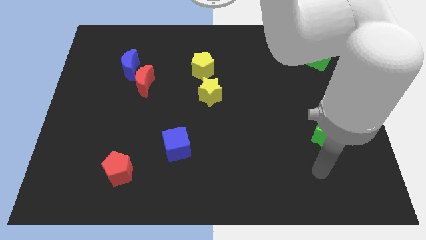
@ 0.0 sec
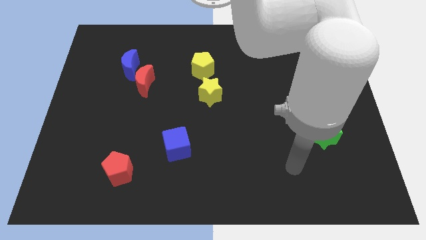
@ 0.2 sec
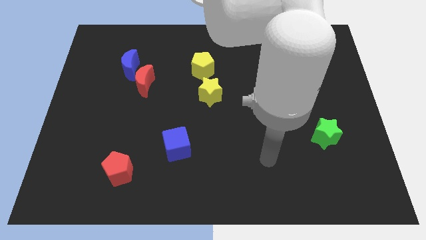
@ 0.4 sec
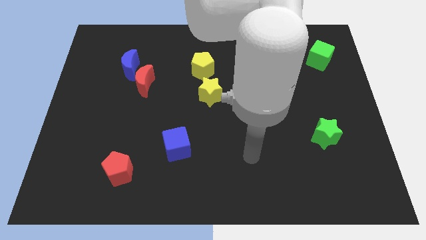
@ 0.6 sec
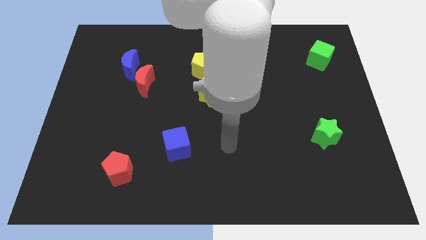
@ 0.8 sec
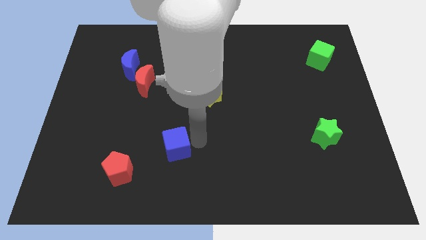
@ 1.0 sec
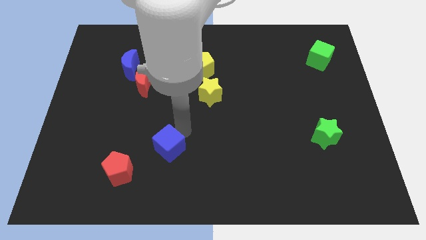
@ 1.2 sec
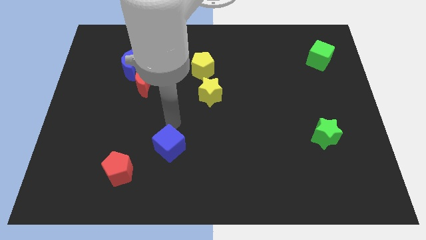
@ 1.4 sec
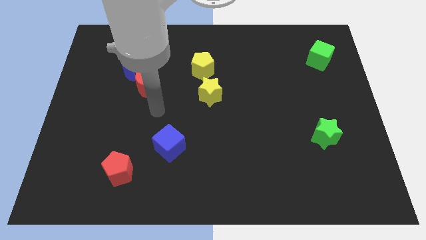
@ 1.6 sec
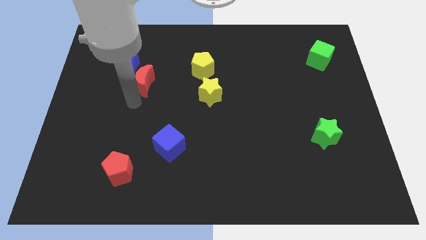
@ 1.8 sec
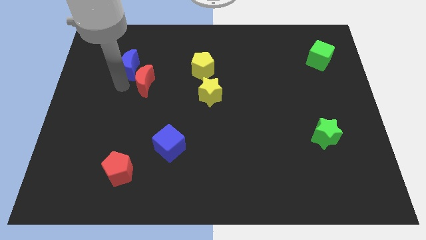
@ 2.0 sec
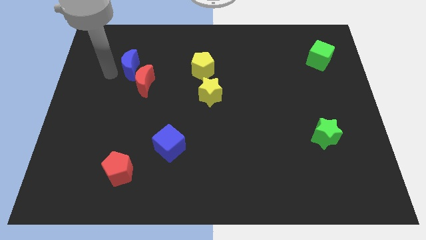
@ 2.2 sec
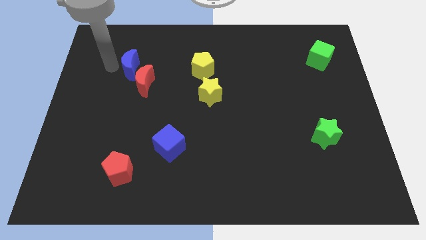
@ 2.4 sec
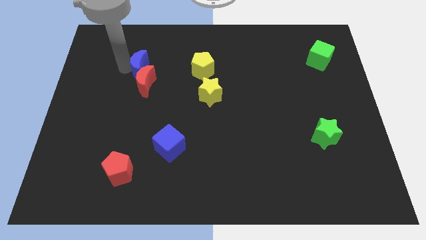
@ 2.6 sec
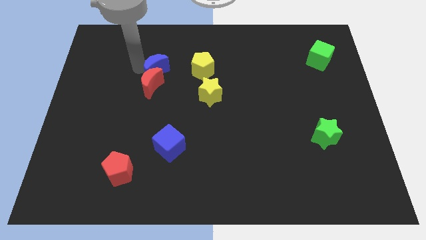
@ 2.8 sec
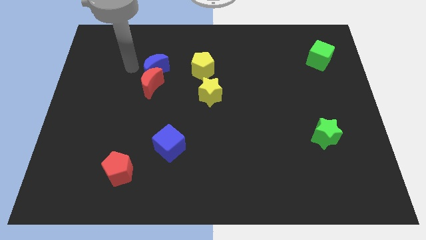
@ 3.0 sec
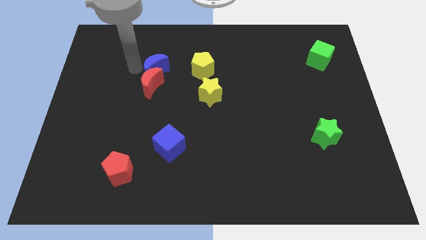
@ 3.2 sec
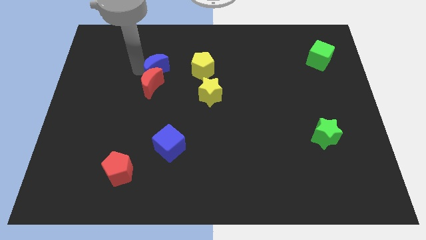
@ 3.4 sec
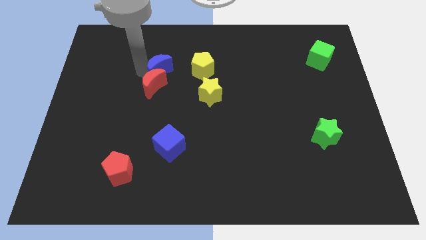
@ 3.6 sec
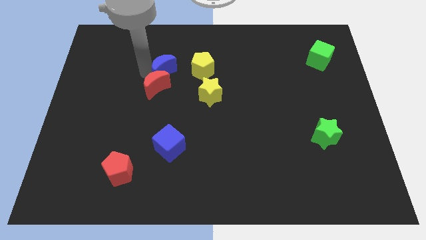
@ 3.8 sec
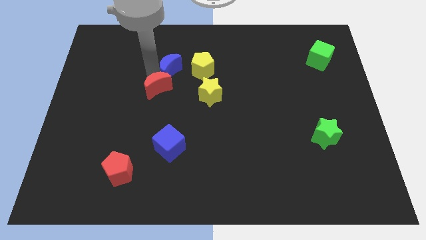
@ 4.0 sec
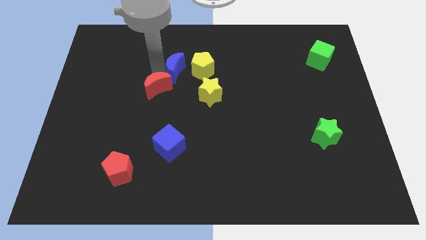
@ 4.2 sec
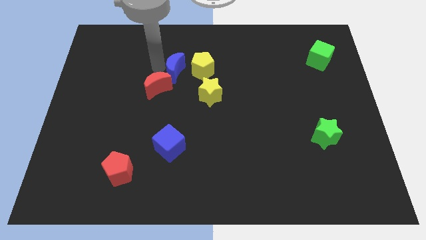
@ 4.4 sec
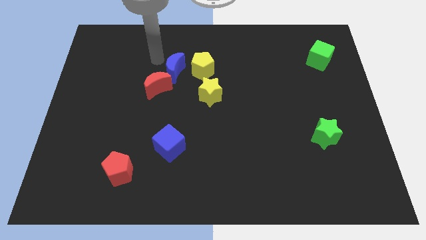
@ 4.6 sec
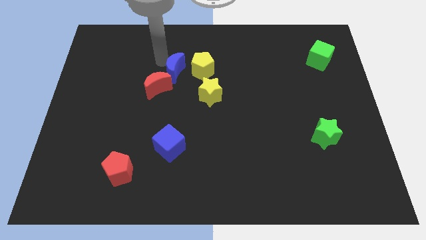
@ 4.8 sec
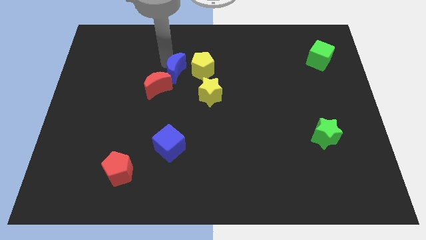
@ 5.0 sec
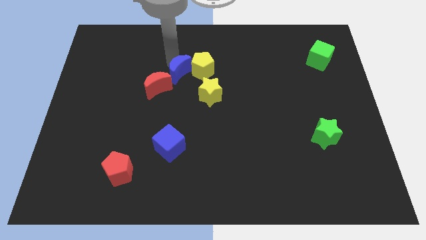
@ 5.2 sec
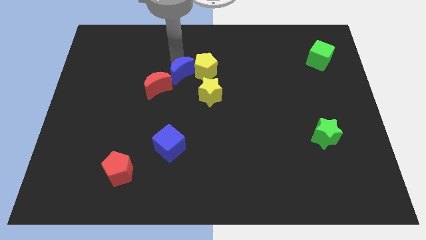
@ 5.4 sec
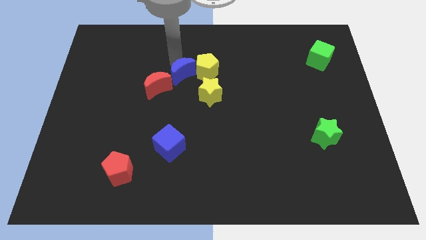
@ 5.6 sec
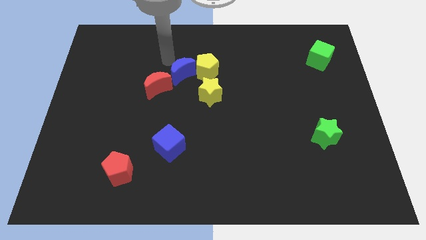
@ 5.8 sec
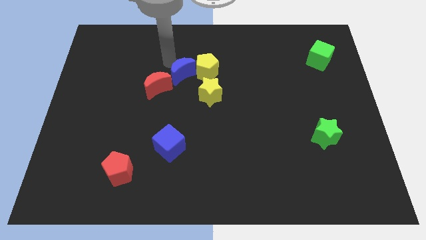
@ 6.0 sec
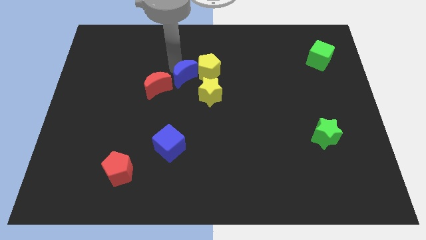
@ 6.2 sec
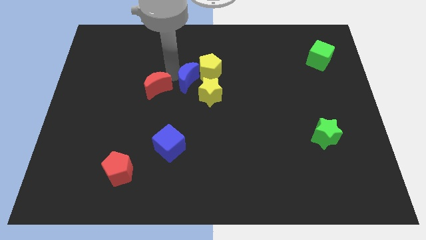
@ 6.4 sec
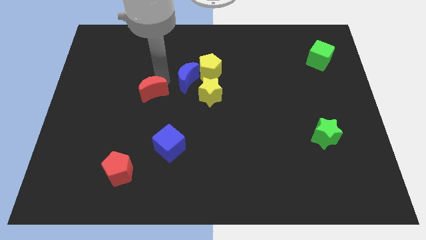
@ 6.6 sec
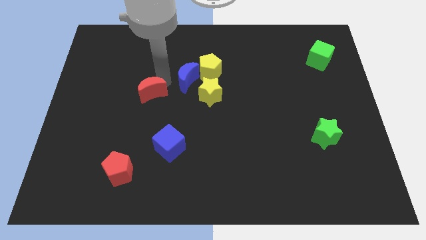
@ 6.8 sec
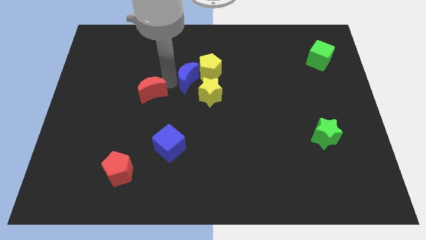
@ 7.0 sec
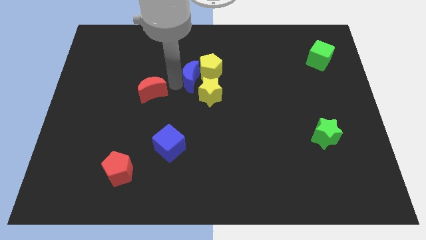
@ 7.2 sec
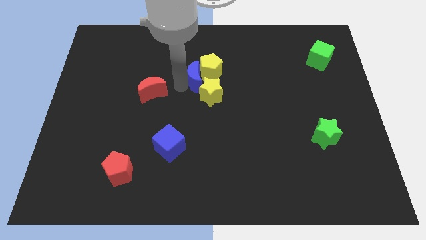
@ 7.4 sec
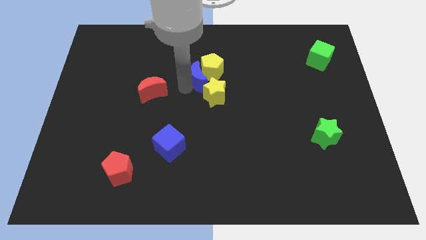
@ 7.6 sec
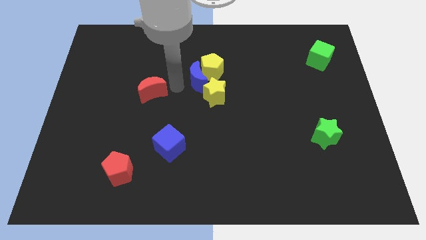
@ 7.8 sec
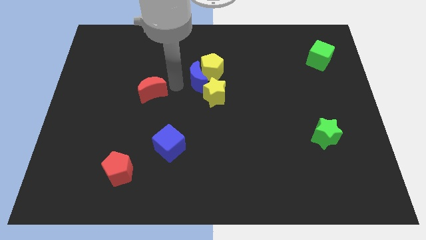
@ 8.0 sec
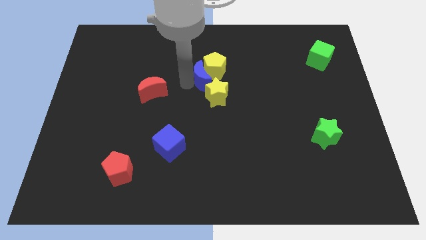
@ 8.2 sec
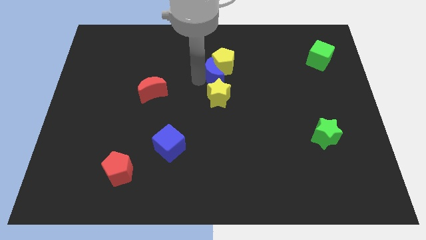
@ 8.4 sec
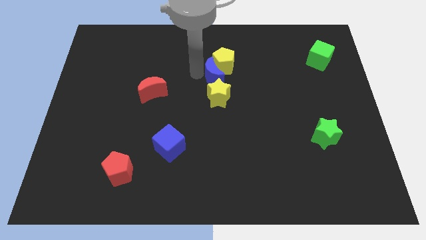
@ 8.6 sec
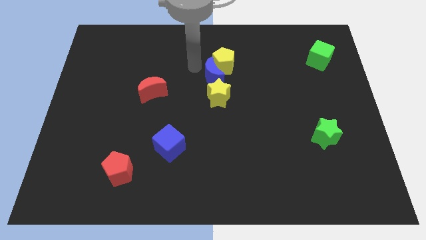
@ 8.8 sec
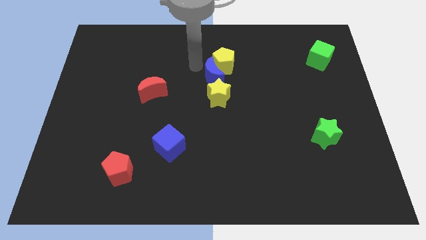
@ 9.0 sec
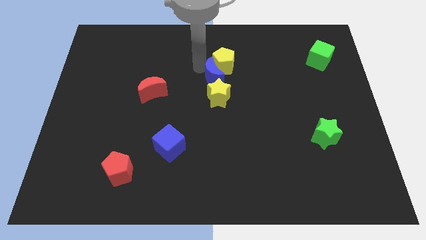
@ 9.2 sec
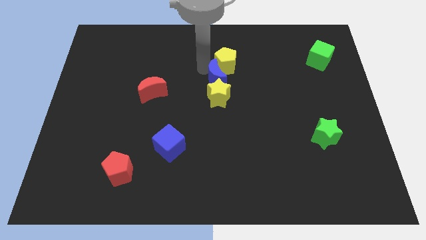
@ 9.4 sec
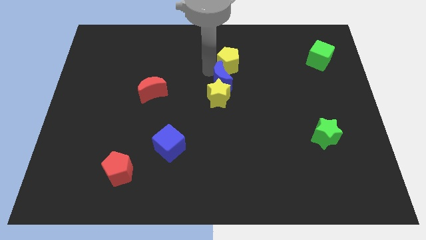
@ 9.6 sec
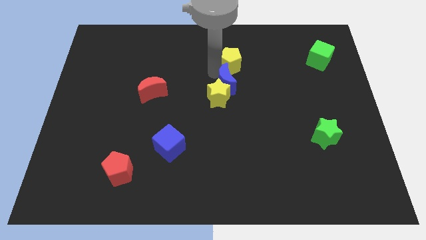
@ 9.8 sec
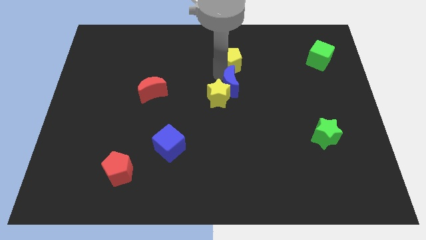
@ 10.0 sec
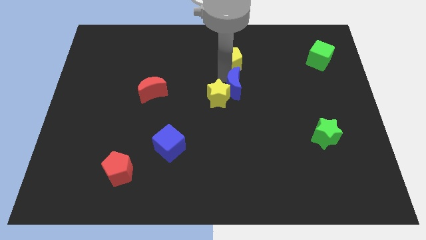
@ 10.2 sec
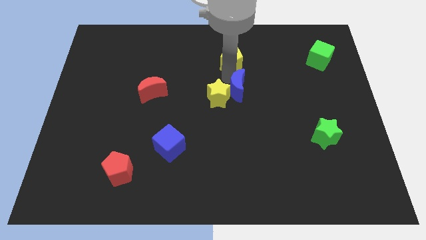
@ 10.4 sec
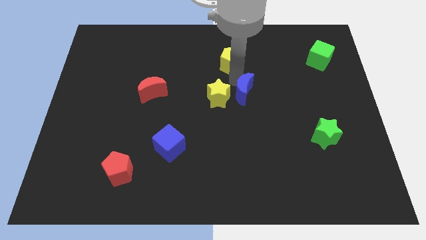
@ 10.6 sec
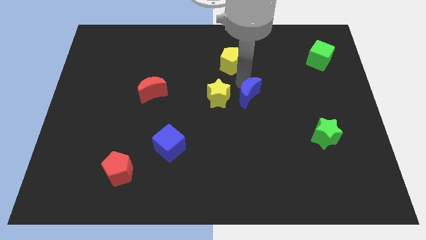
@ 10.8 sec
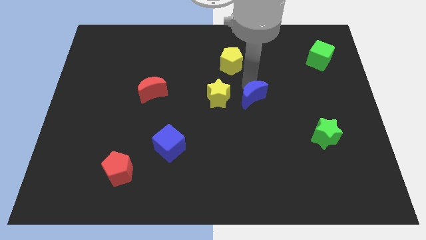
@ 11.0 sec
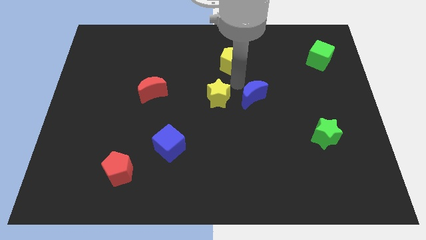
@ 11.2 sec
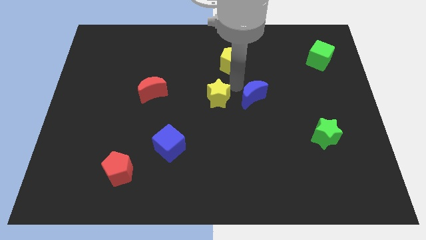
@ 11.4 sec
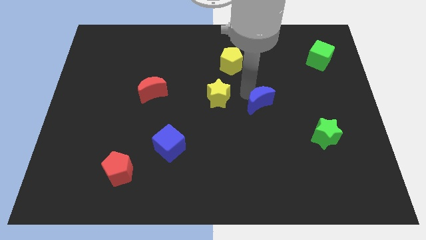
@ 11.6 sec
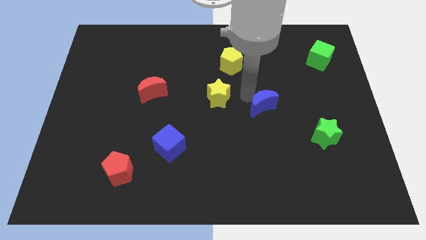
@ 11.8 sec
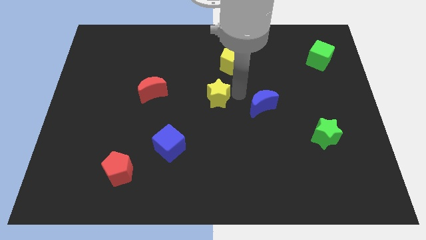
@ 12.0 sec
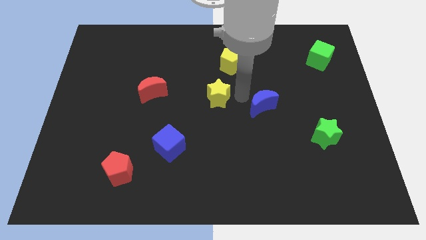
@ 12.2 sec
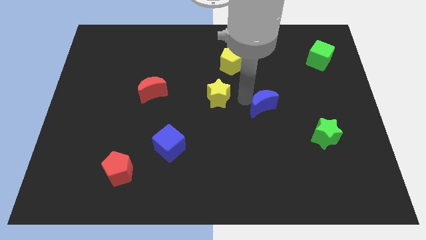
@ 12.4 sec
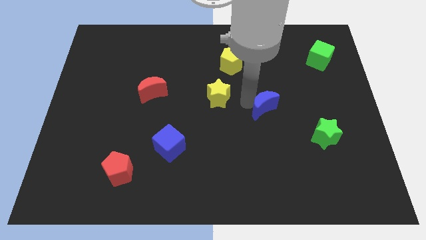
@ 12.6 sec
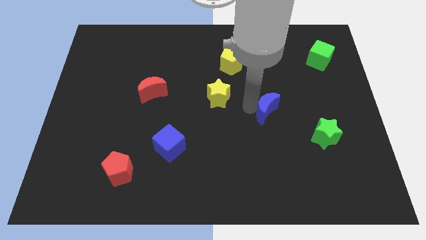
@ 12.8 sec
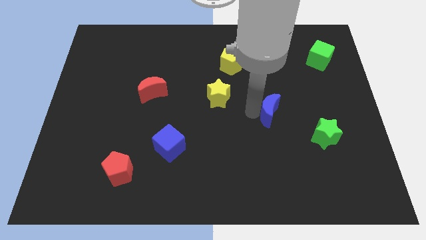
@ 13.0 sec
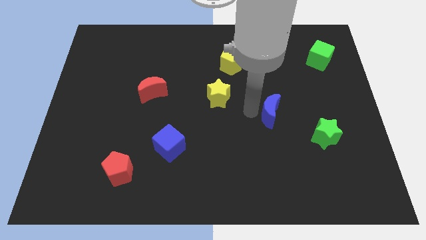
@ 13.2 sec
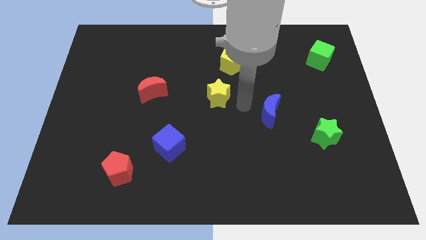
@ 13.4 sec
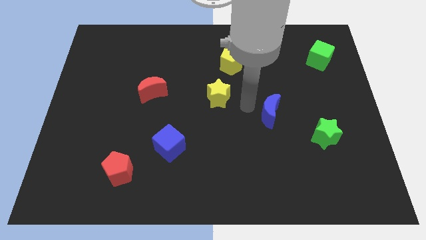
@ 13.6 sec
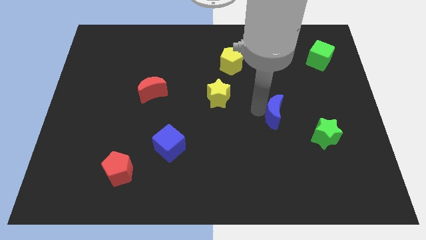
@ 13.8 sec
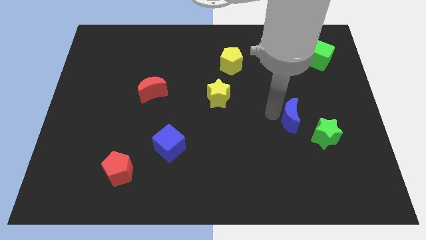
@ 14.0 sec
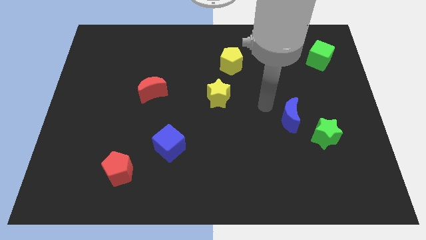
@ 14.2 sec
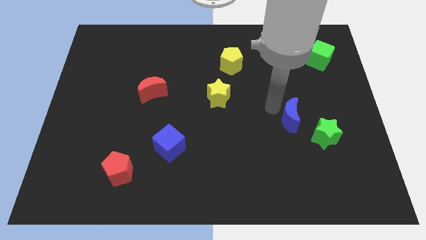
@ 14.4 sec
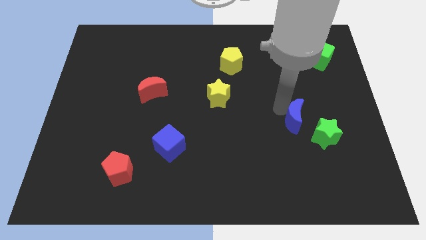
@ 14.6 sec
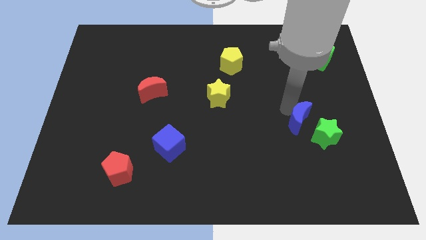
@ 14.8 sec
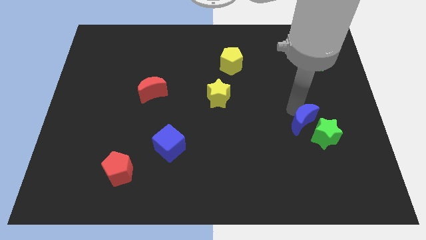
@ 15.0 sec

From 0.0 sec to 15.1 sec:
put the blue moon close to the green star

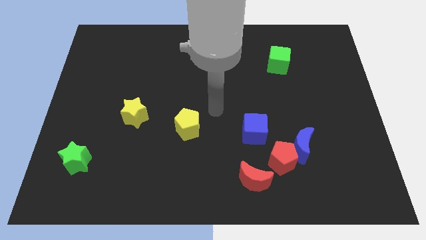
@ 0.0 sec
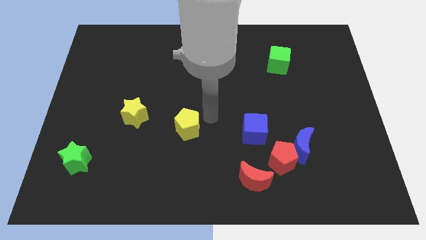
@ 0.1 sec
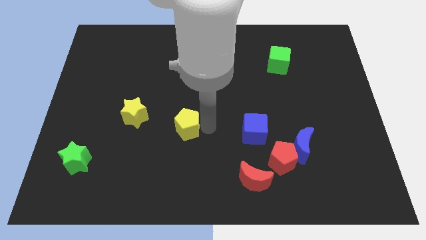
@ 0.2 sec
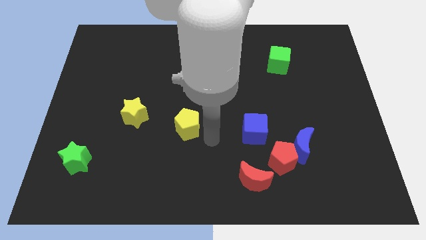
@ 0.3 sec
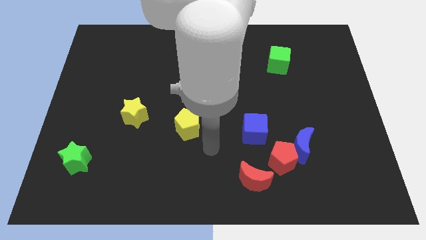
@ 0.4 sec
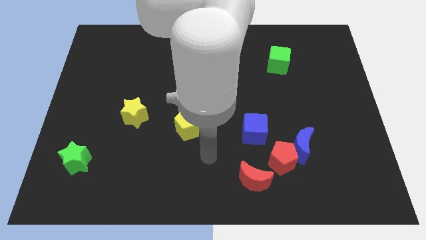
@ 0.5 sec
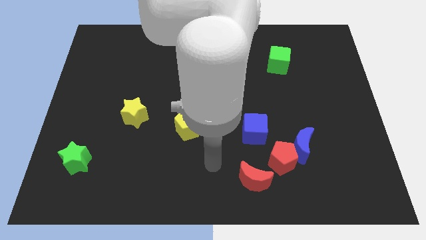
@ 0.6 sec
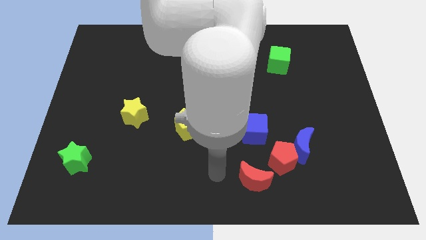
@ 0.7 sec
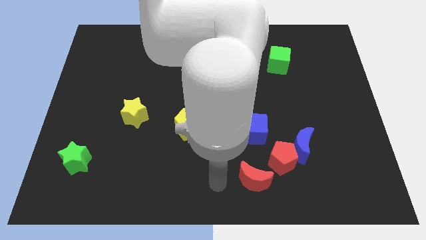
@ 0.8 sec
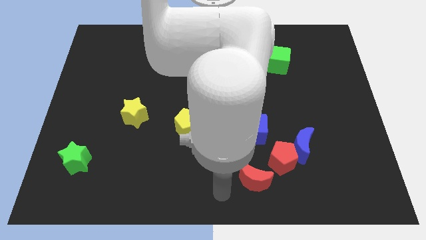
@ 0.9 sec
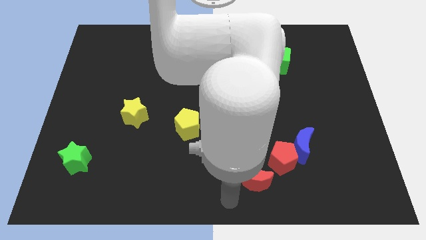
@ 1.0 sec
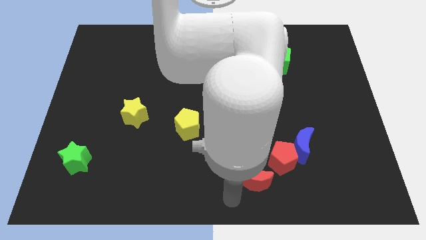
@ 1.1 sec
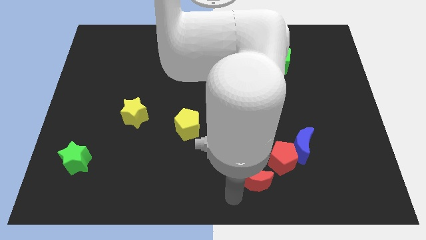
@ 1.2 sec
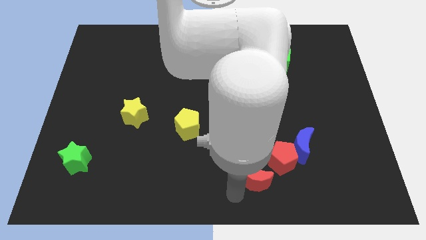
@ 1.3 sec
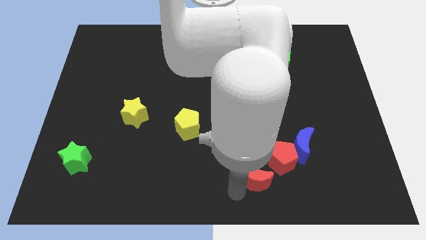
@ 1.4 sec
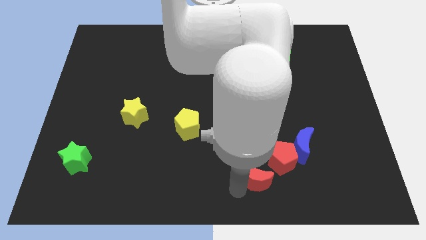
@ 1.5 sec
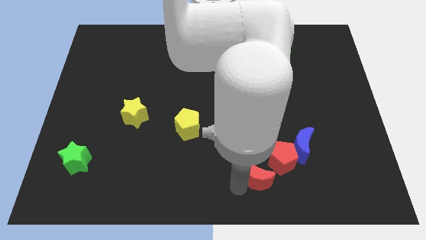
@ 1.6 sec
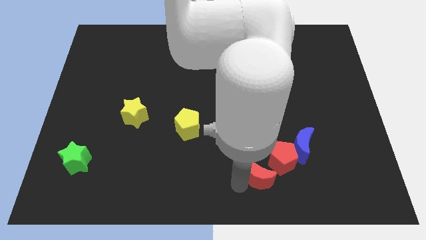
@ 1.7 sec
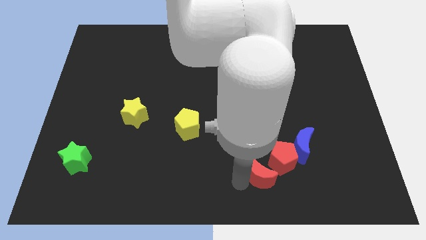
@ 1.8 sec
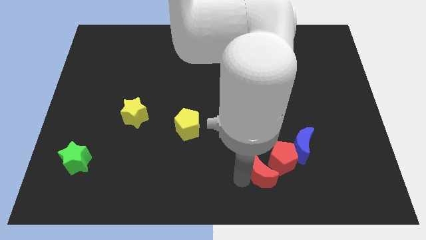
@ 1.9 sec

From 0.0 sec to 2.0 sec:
put the red moon to the red pentagon
